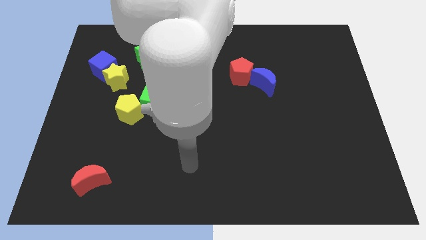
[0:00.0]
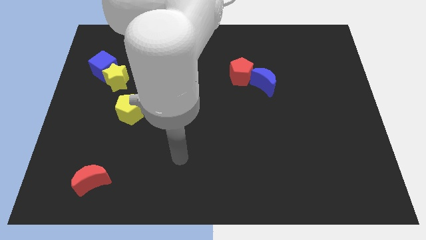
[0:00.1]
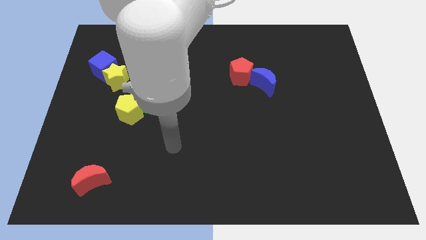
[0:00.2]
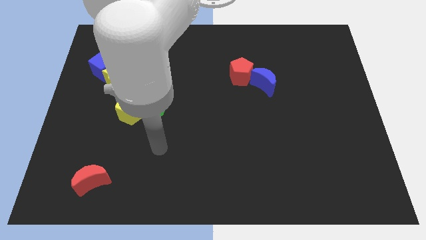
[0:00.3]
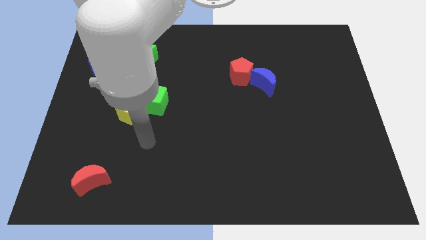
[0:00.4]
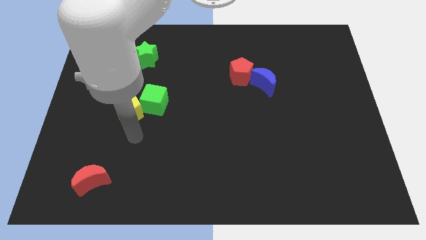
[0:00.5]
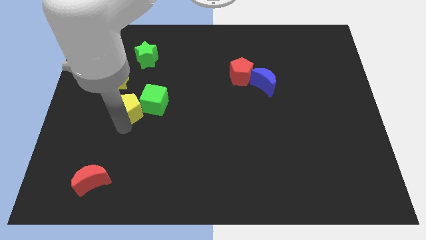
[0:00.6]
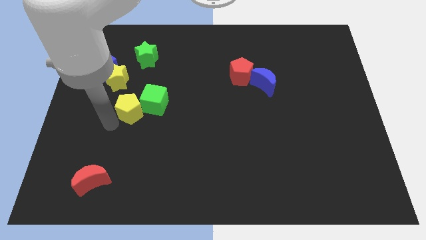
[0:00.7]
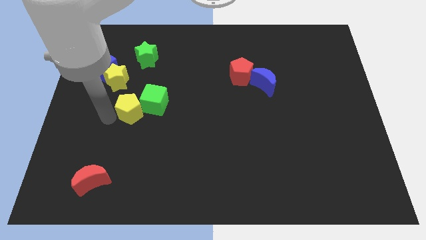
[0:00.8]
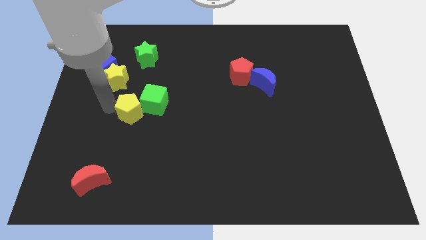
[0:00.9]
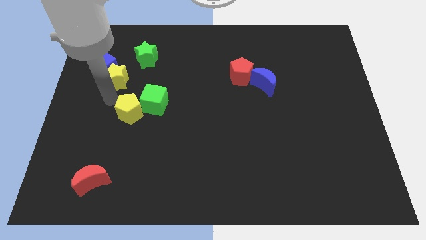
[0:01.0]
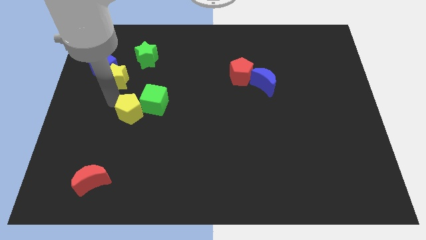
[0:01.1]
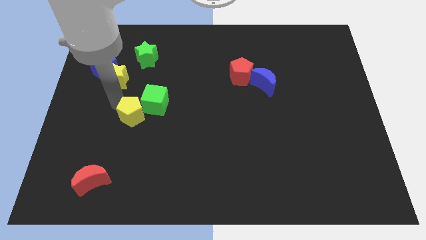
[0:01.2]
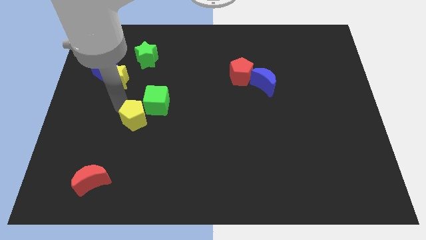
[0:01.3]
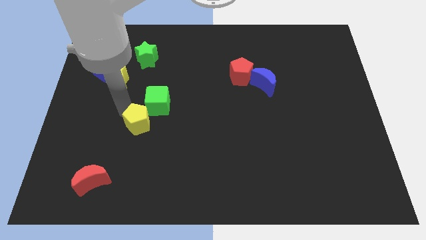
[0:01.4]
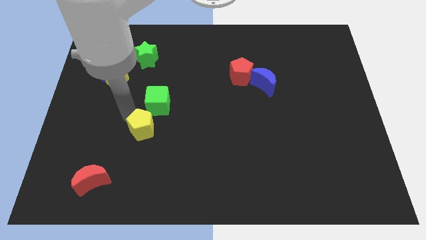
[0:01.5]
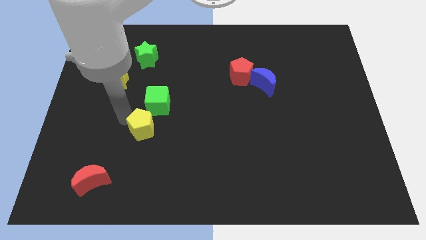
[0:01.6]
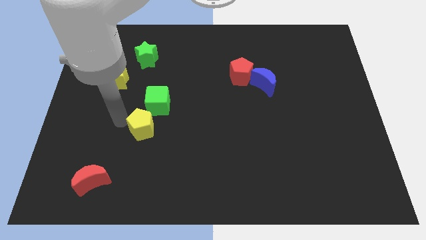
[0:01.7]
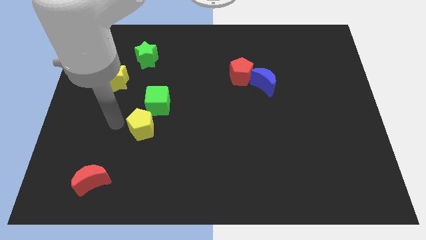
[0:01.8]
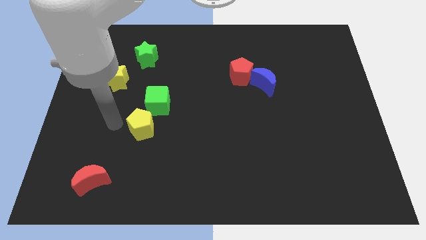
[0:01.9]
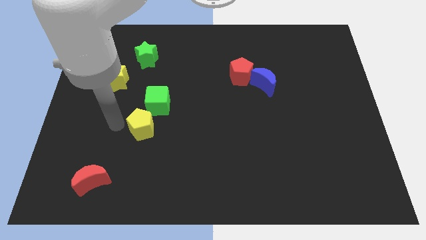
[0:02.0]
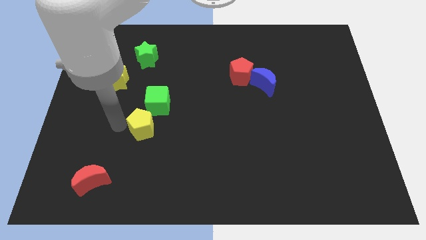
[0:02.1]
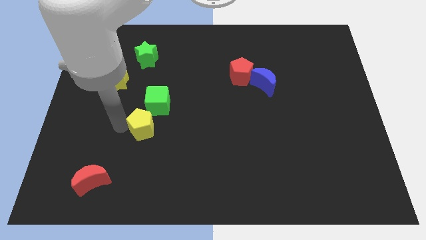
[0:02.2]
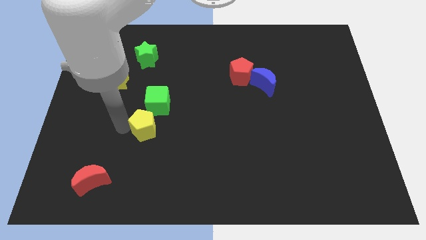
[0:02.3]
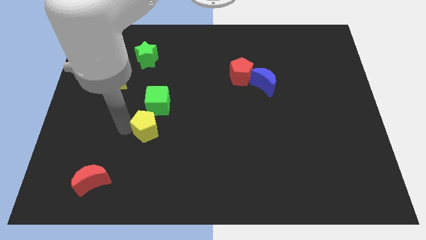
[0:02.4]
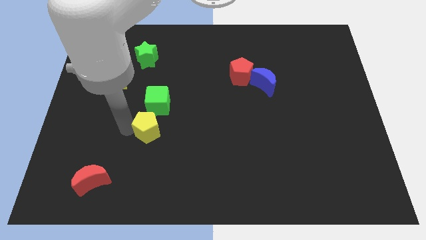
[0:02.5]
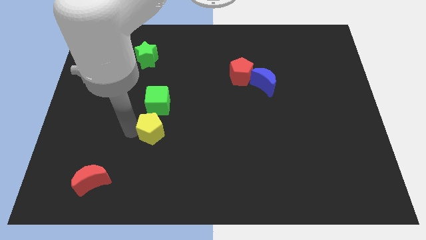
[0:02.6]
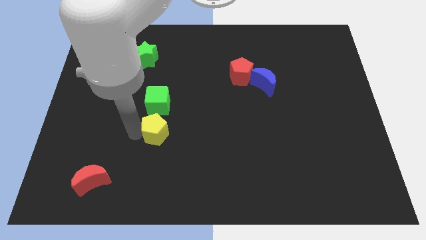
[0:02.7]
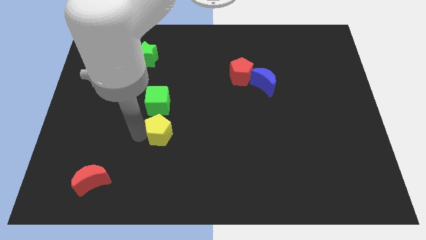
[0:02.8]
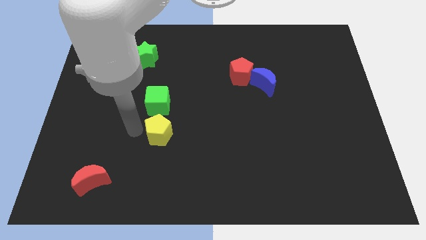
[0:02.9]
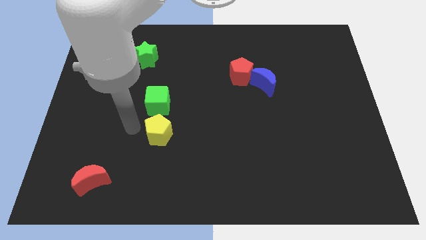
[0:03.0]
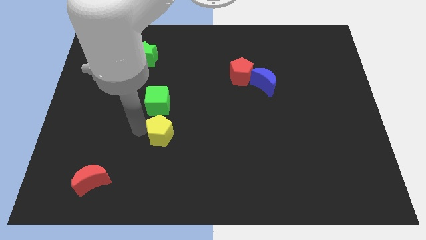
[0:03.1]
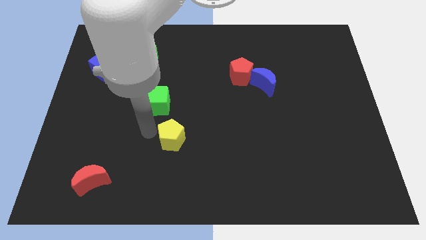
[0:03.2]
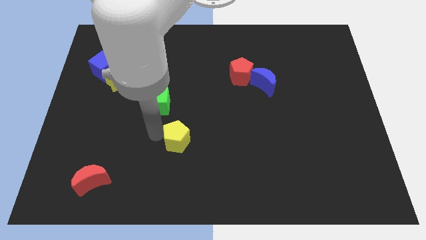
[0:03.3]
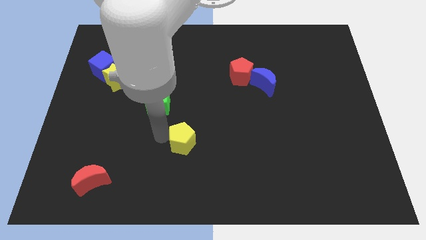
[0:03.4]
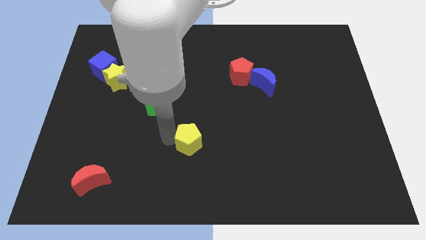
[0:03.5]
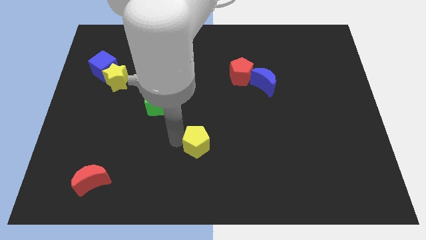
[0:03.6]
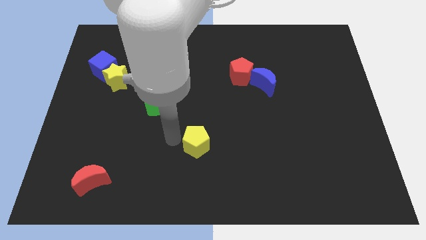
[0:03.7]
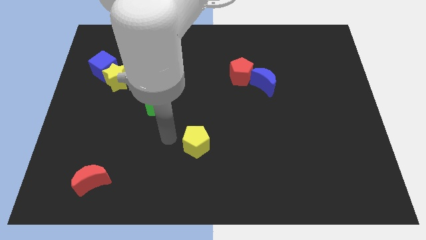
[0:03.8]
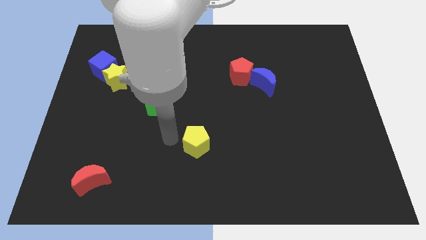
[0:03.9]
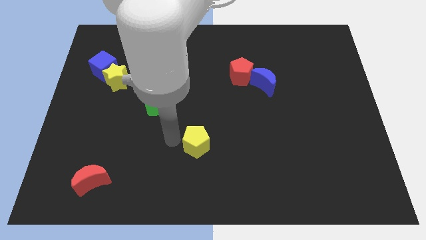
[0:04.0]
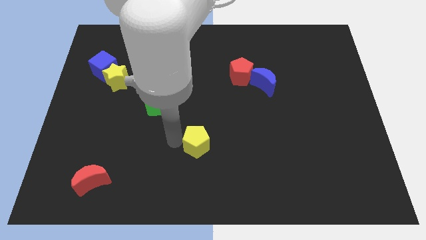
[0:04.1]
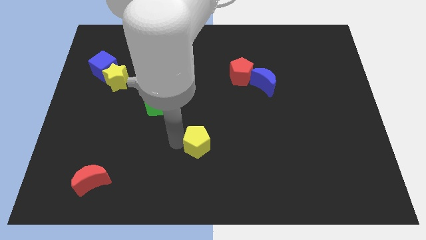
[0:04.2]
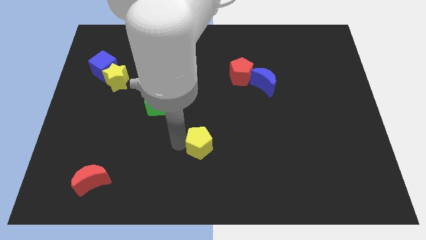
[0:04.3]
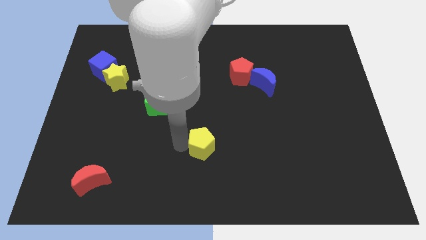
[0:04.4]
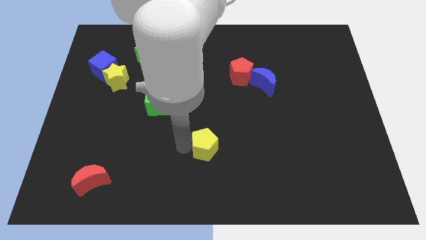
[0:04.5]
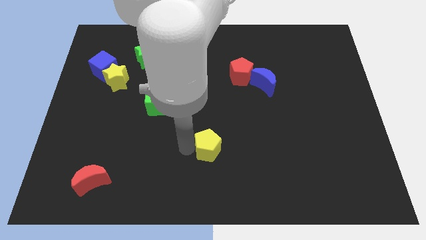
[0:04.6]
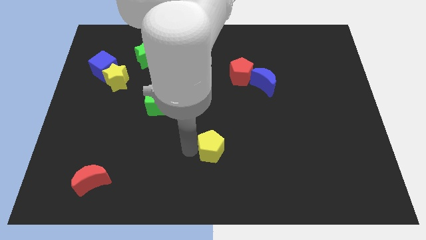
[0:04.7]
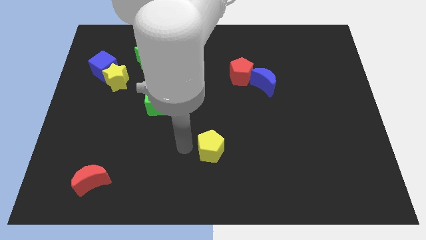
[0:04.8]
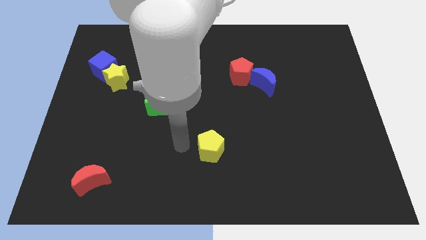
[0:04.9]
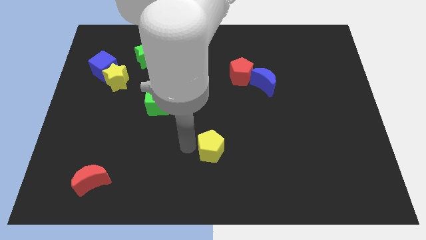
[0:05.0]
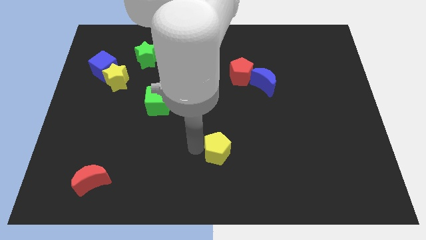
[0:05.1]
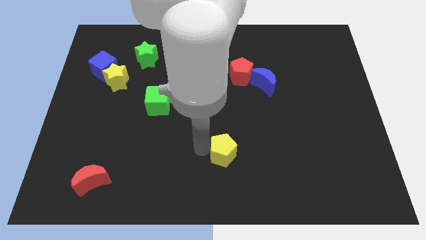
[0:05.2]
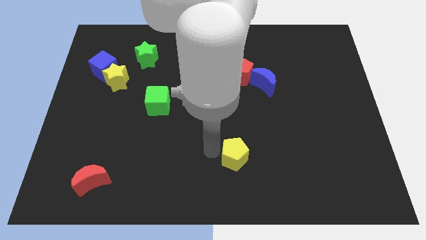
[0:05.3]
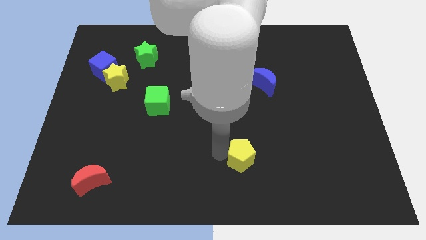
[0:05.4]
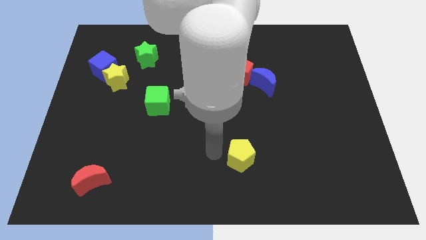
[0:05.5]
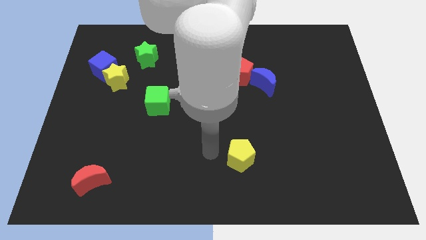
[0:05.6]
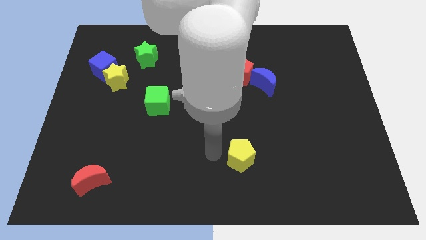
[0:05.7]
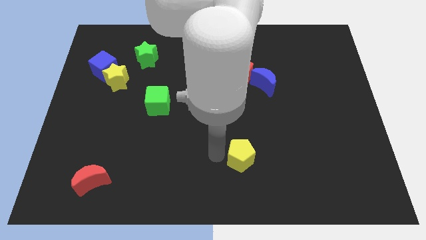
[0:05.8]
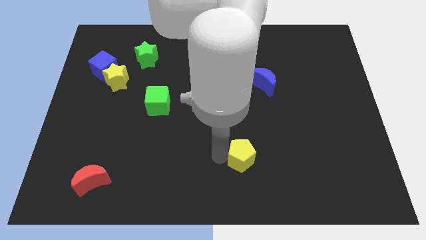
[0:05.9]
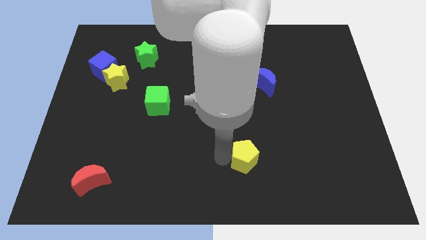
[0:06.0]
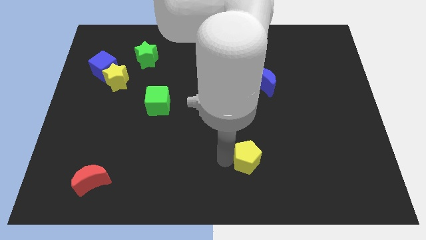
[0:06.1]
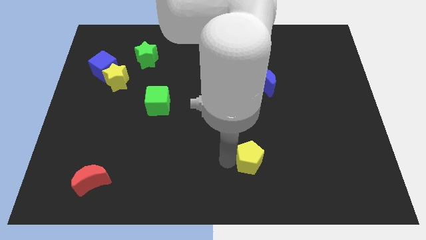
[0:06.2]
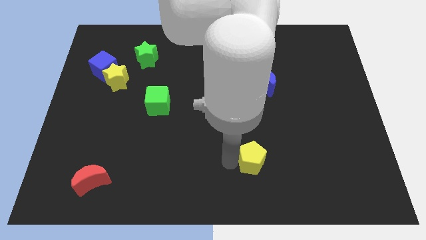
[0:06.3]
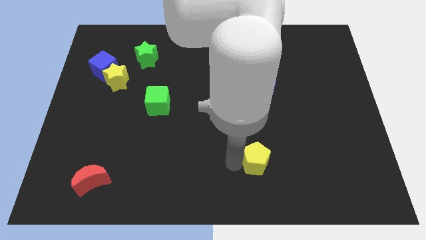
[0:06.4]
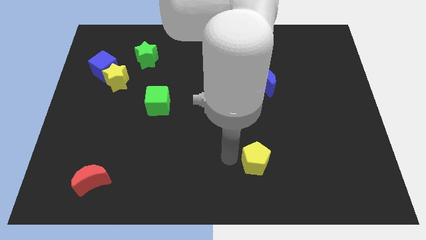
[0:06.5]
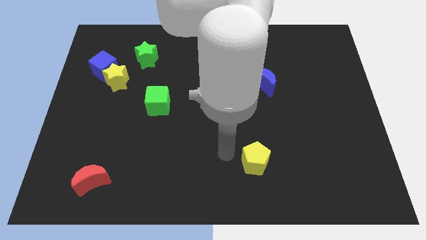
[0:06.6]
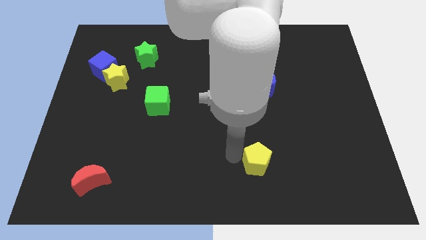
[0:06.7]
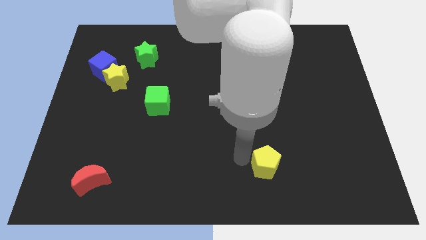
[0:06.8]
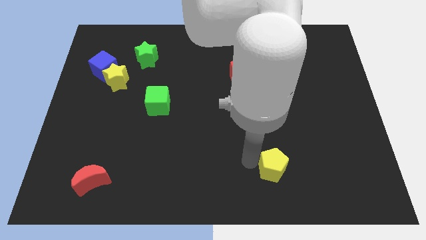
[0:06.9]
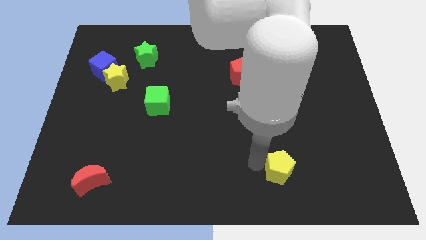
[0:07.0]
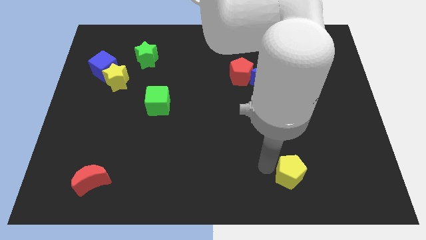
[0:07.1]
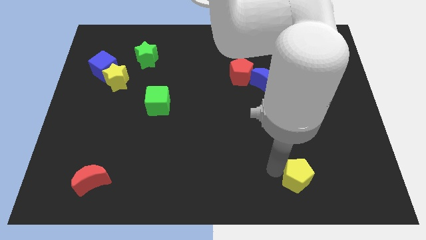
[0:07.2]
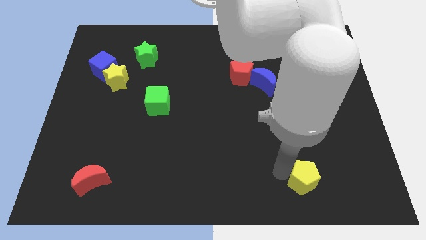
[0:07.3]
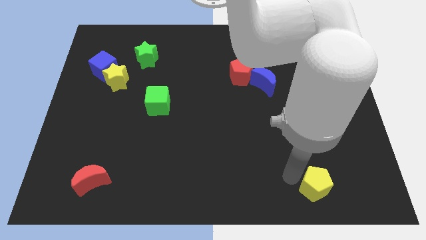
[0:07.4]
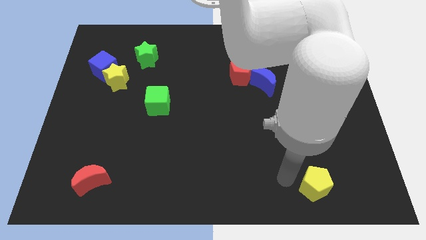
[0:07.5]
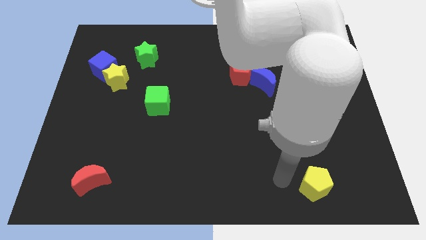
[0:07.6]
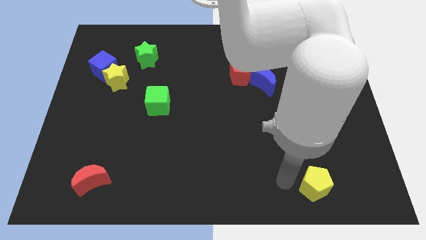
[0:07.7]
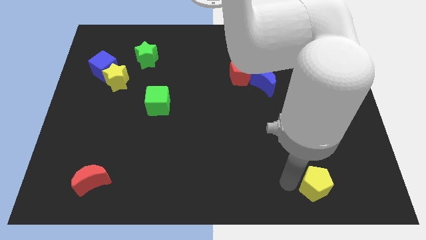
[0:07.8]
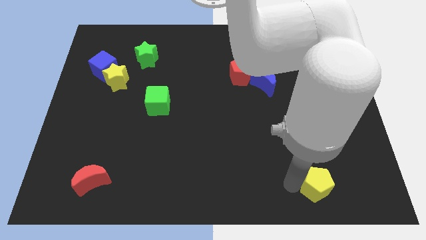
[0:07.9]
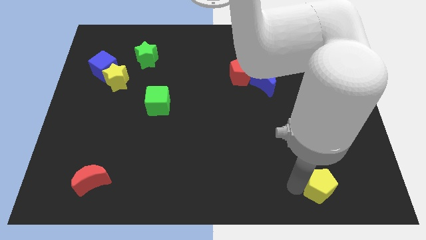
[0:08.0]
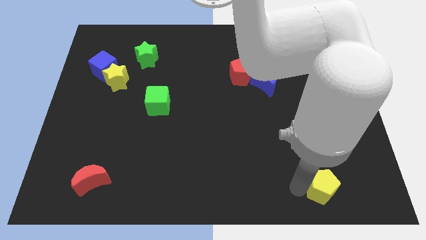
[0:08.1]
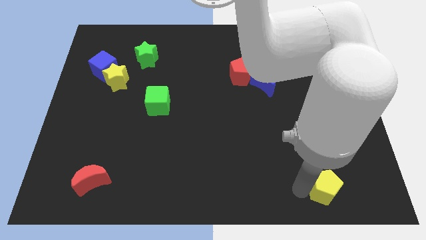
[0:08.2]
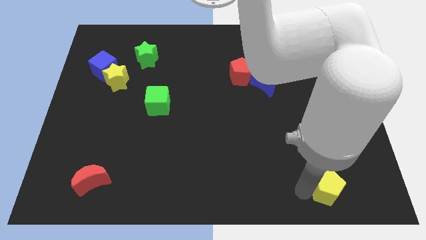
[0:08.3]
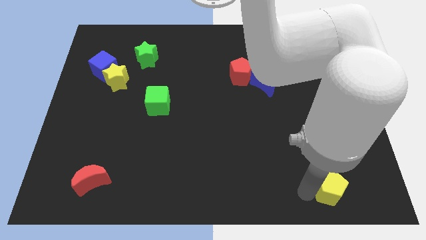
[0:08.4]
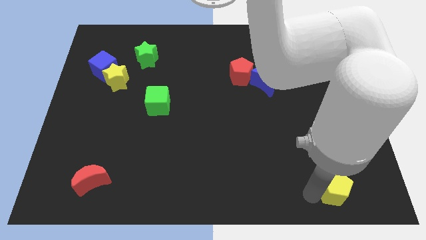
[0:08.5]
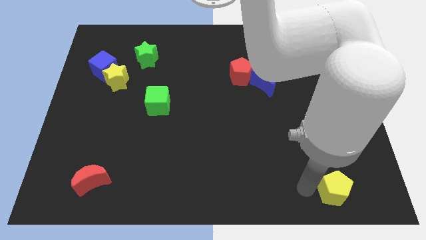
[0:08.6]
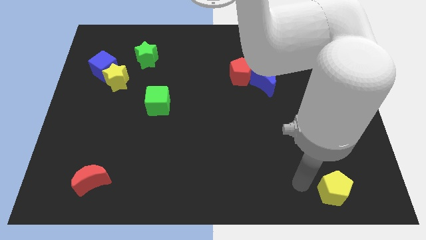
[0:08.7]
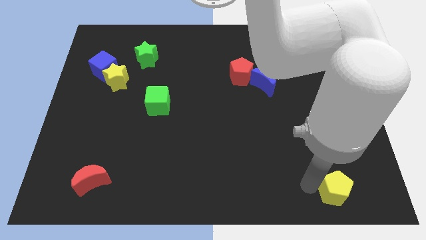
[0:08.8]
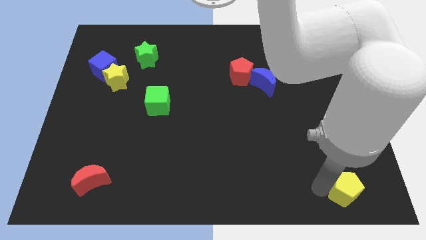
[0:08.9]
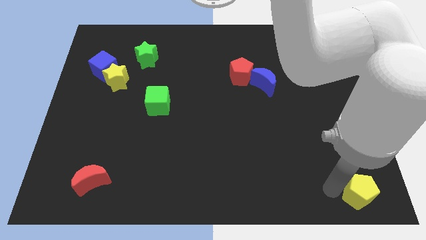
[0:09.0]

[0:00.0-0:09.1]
slide the yellow pentagon to the lower right corner
